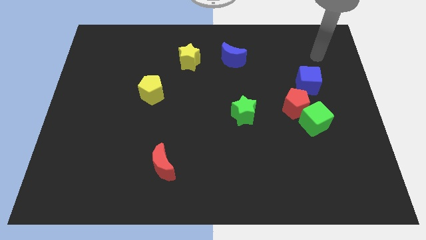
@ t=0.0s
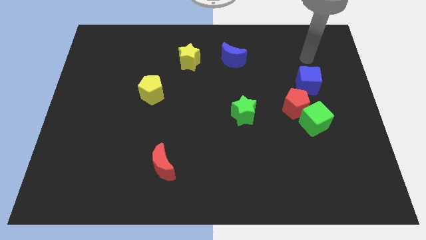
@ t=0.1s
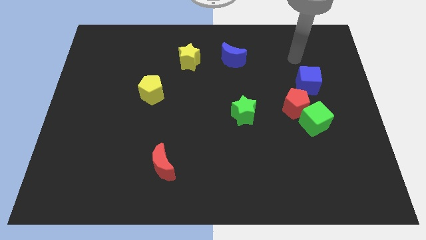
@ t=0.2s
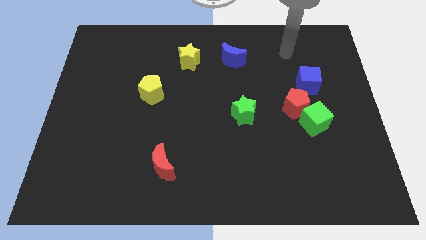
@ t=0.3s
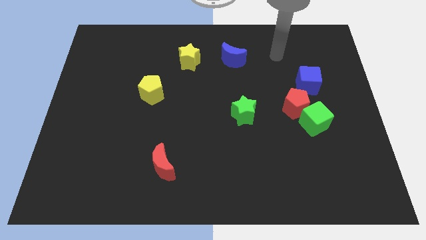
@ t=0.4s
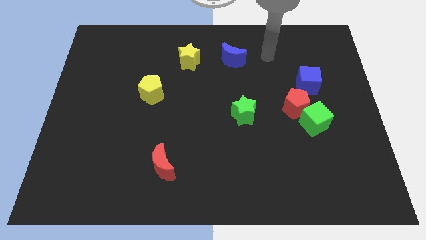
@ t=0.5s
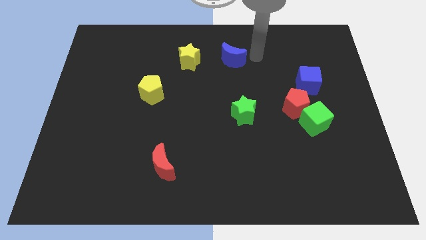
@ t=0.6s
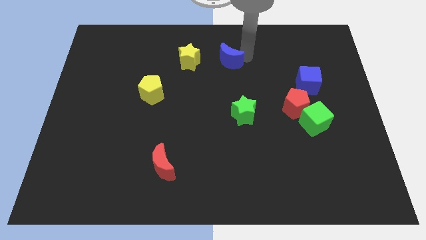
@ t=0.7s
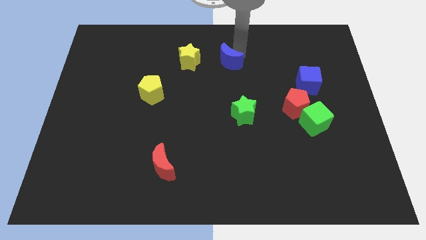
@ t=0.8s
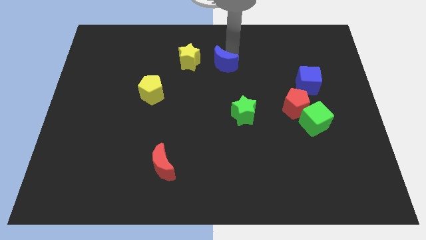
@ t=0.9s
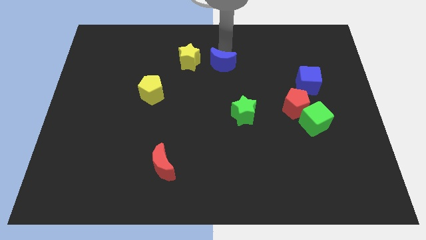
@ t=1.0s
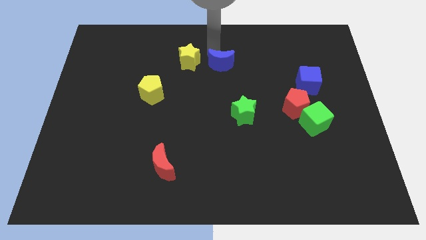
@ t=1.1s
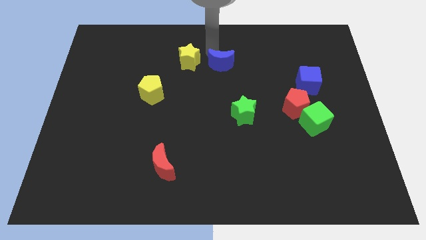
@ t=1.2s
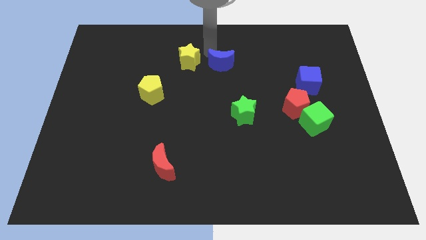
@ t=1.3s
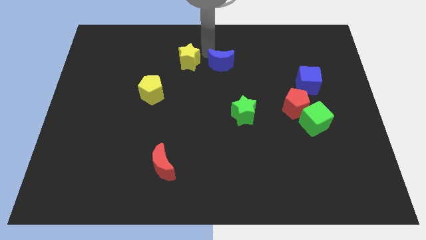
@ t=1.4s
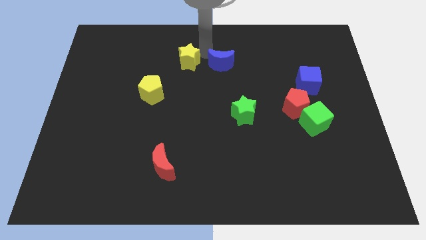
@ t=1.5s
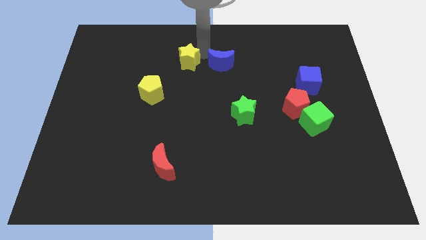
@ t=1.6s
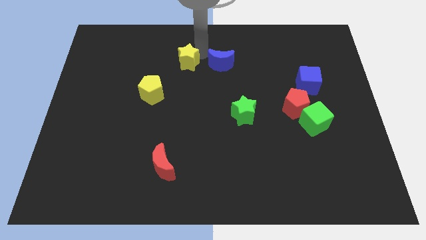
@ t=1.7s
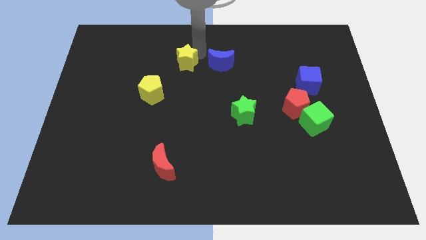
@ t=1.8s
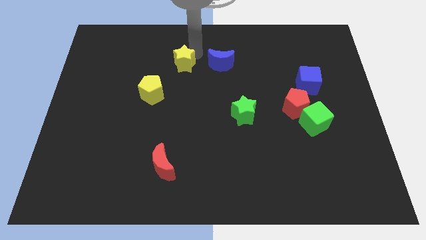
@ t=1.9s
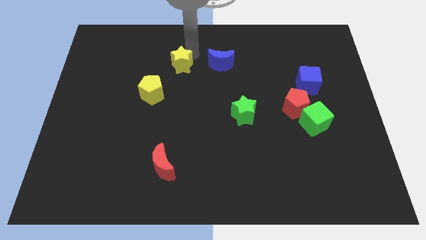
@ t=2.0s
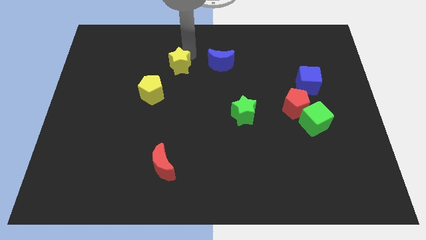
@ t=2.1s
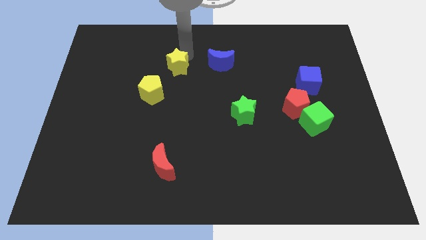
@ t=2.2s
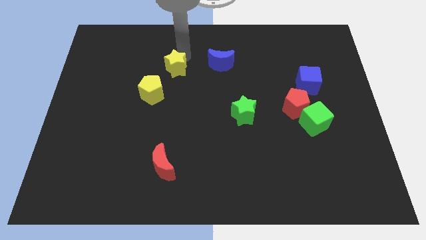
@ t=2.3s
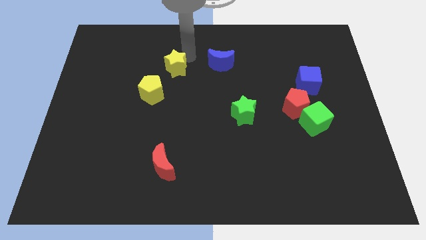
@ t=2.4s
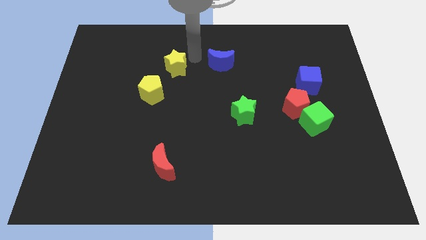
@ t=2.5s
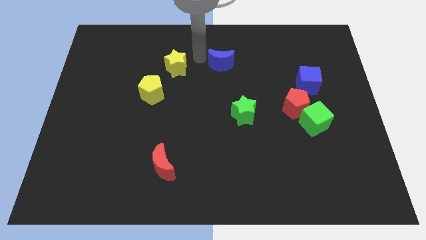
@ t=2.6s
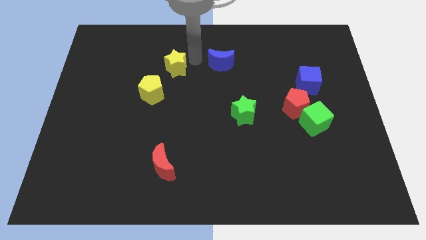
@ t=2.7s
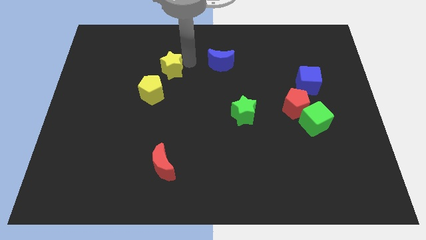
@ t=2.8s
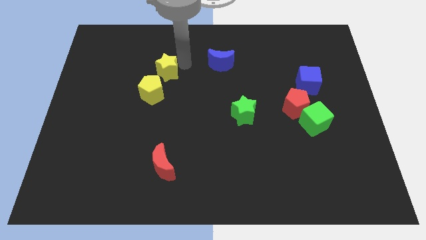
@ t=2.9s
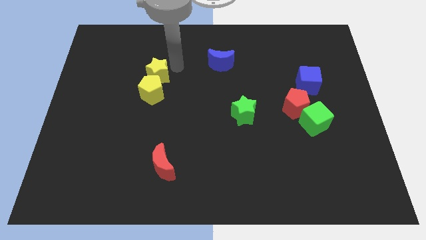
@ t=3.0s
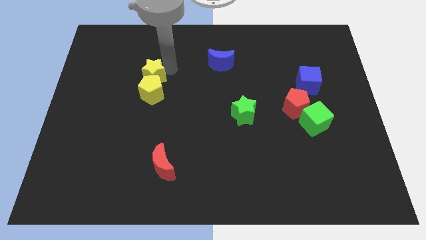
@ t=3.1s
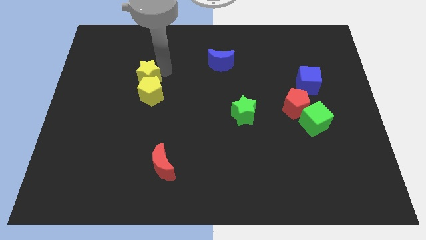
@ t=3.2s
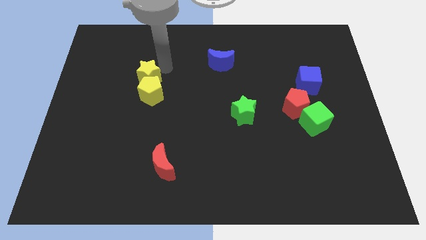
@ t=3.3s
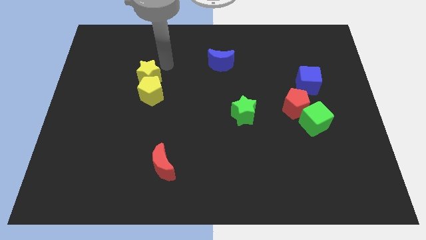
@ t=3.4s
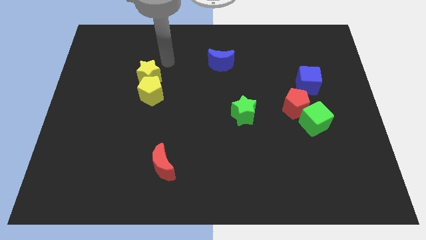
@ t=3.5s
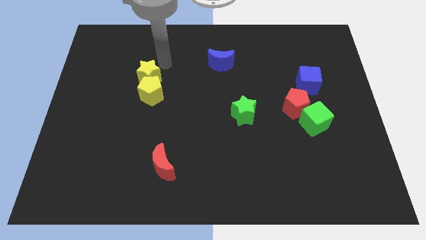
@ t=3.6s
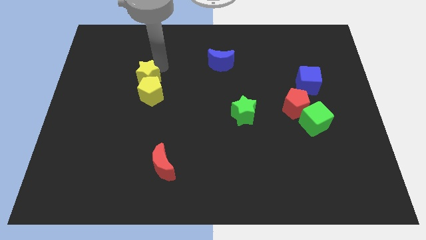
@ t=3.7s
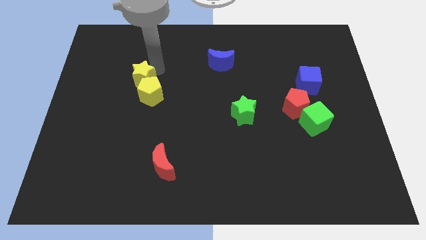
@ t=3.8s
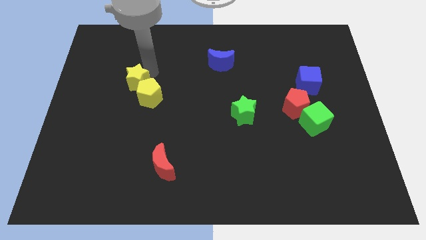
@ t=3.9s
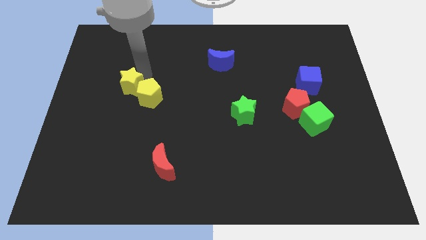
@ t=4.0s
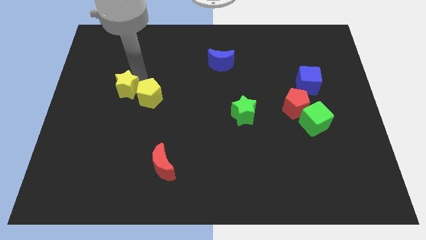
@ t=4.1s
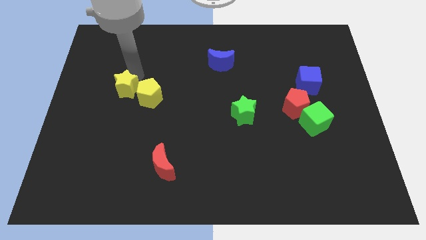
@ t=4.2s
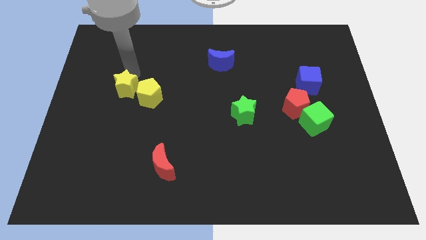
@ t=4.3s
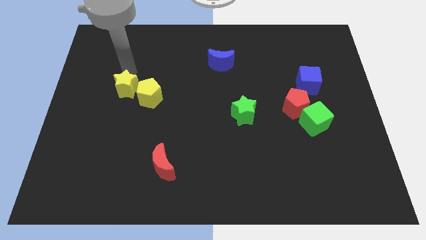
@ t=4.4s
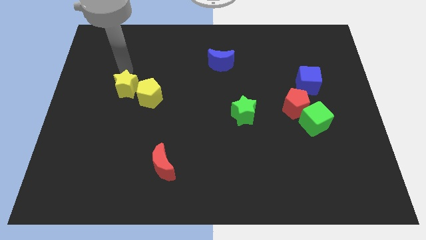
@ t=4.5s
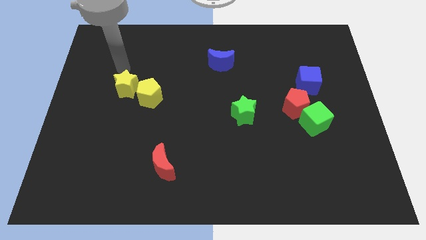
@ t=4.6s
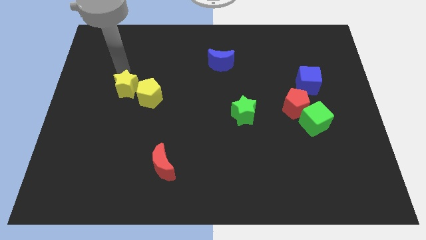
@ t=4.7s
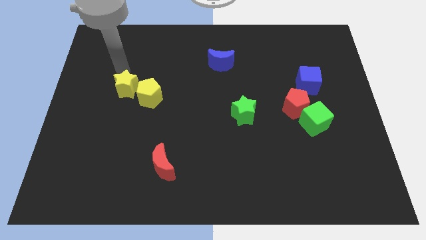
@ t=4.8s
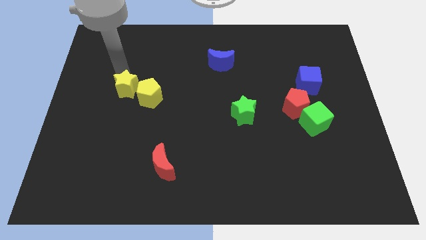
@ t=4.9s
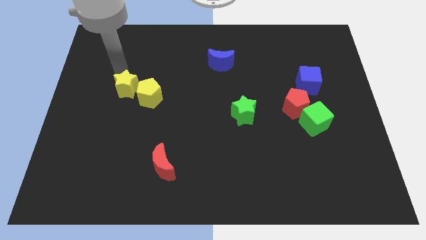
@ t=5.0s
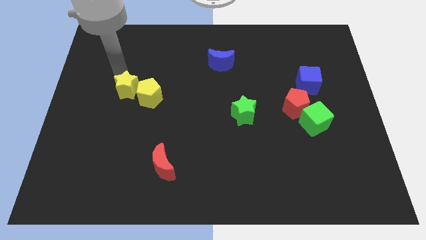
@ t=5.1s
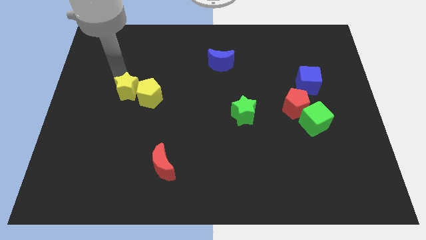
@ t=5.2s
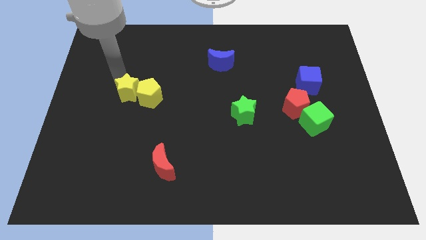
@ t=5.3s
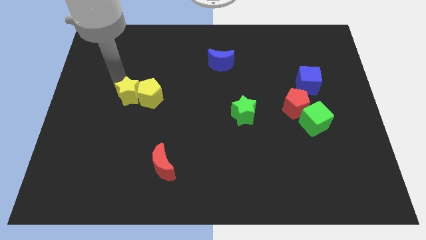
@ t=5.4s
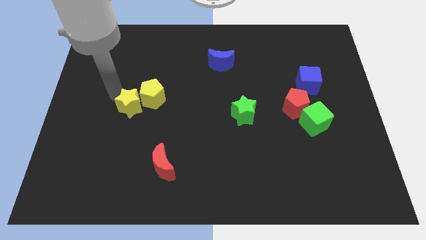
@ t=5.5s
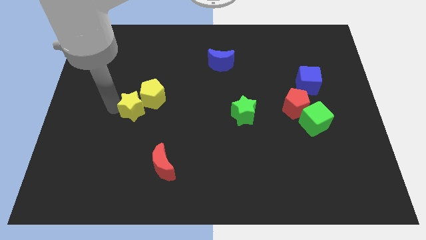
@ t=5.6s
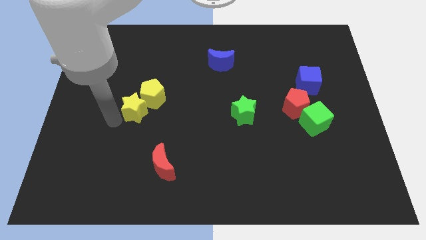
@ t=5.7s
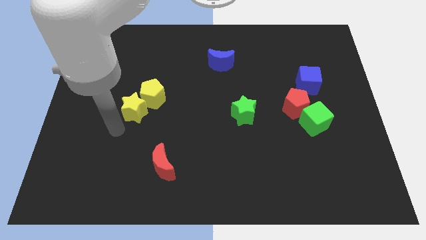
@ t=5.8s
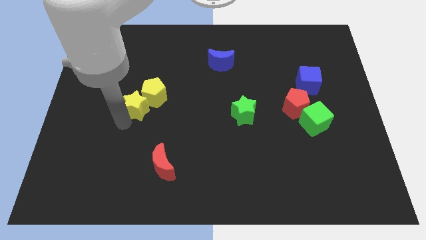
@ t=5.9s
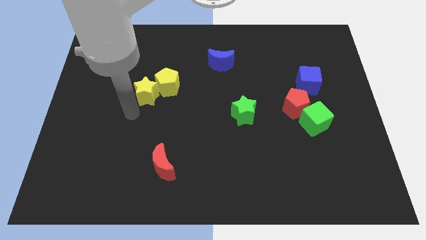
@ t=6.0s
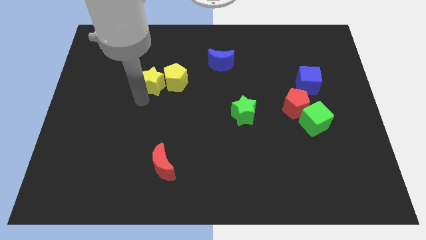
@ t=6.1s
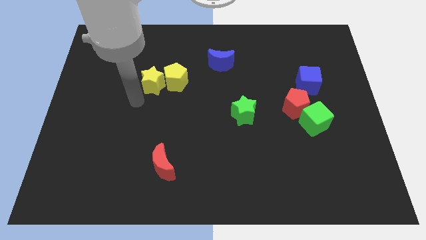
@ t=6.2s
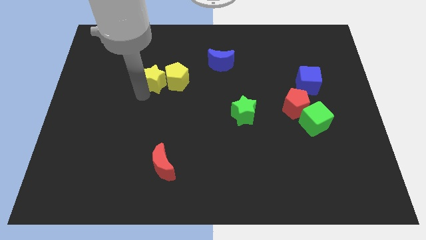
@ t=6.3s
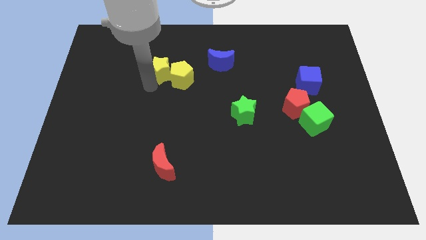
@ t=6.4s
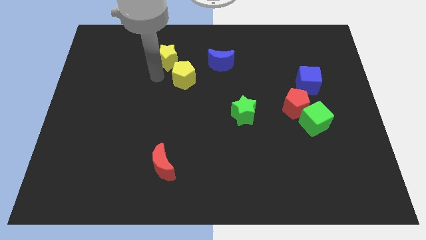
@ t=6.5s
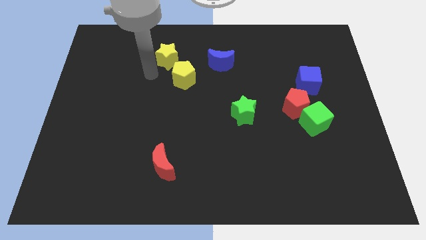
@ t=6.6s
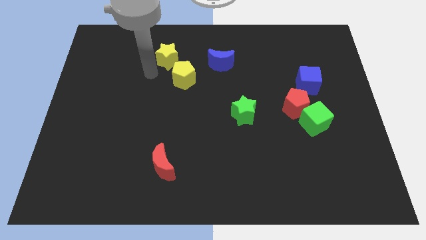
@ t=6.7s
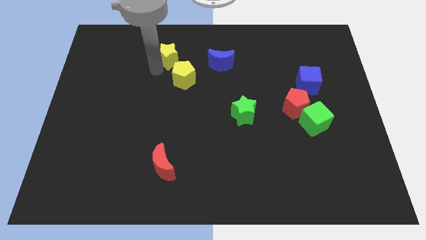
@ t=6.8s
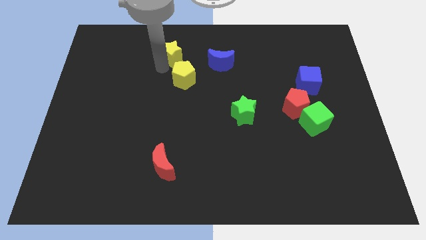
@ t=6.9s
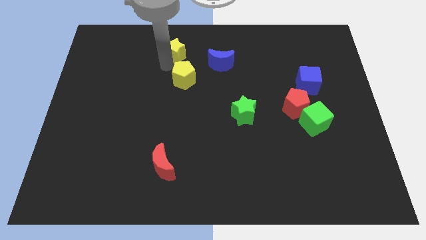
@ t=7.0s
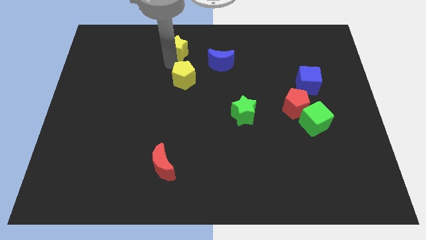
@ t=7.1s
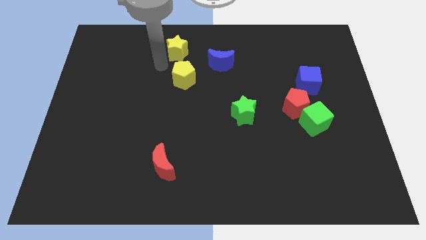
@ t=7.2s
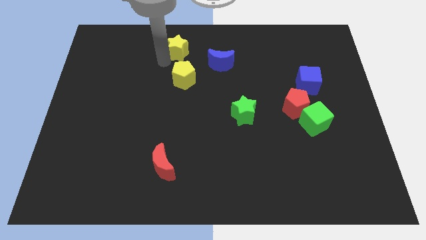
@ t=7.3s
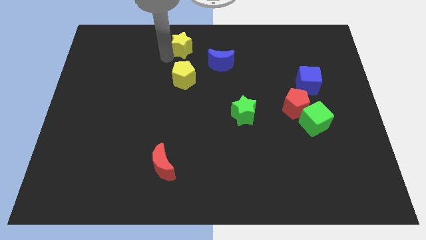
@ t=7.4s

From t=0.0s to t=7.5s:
push the yellow star to the top side
